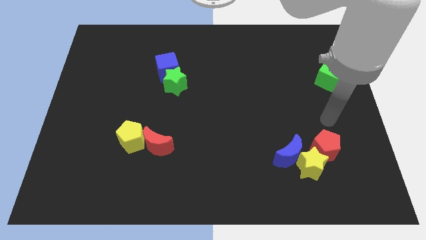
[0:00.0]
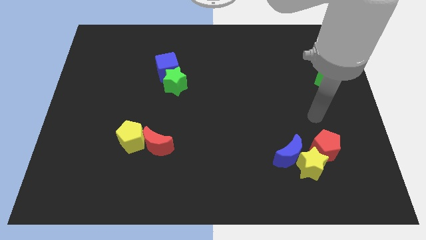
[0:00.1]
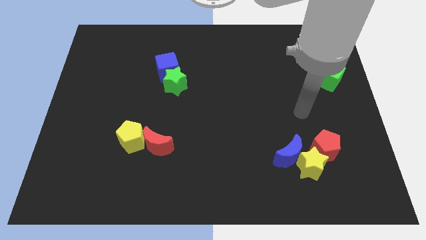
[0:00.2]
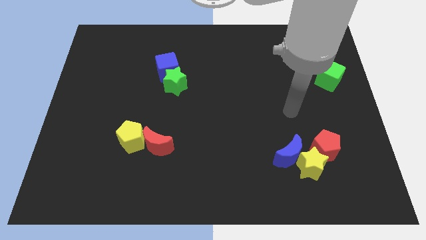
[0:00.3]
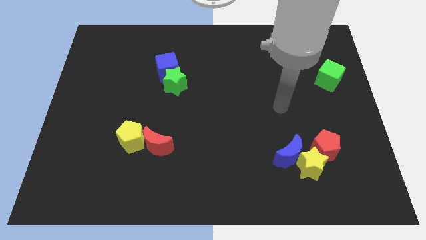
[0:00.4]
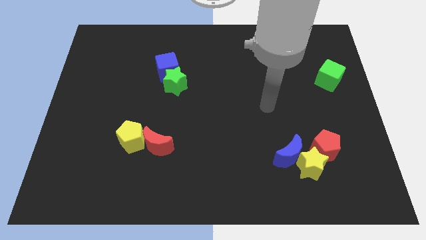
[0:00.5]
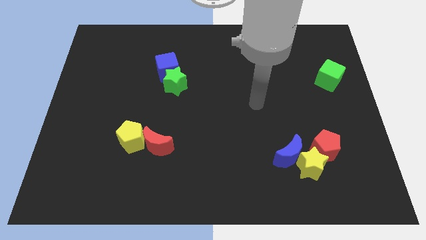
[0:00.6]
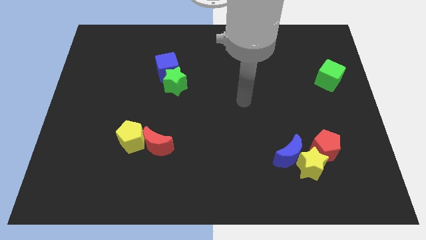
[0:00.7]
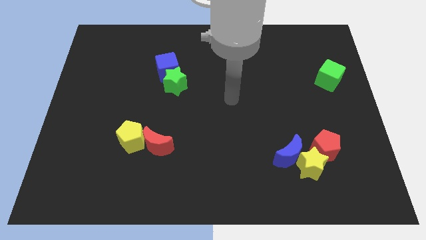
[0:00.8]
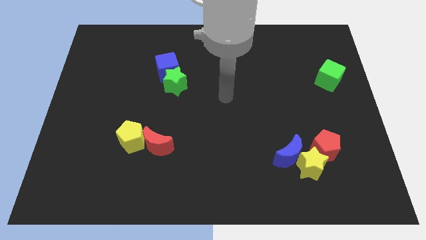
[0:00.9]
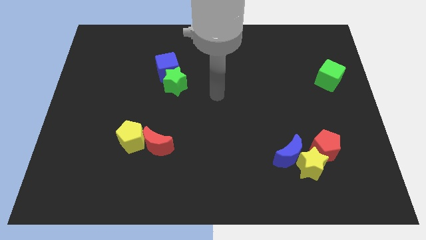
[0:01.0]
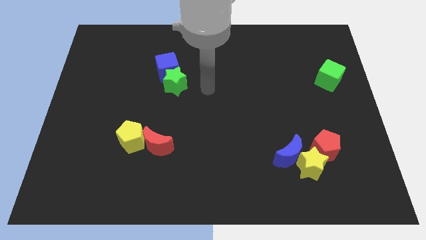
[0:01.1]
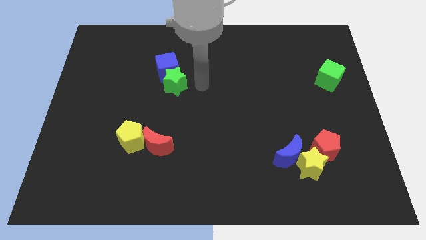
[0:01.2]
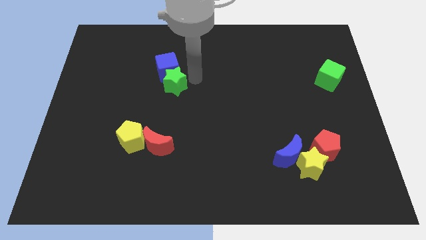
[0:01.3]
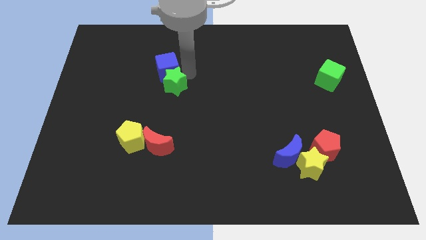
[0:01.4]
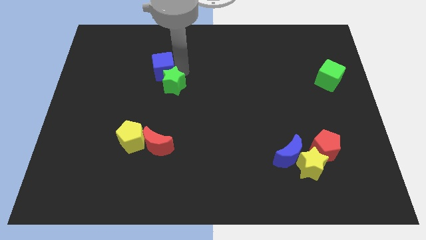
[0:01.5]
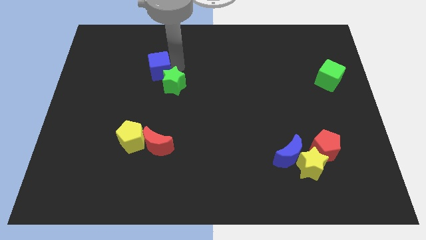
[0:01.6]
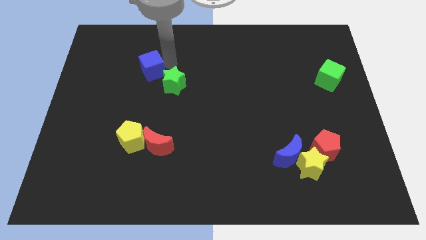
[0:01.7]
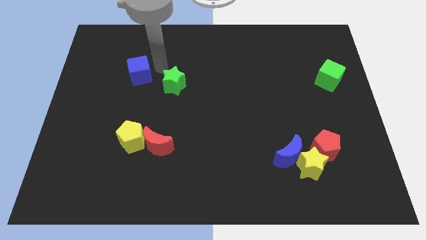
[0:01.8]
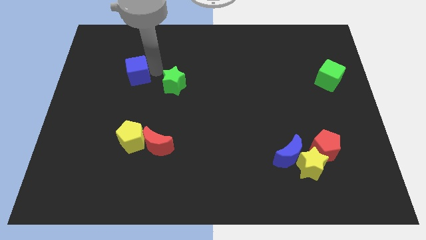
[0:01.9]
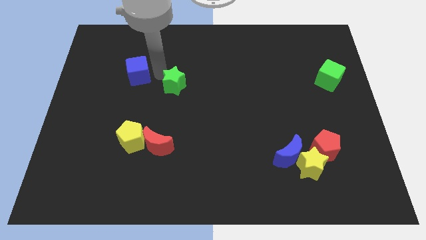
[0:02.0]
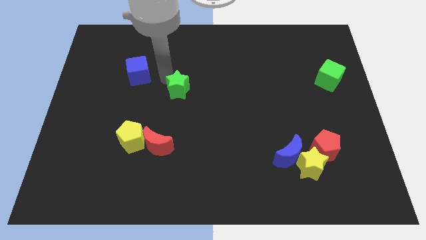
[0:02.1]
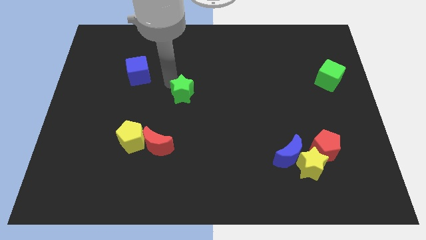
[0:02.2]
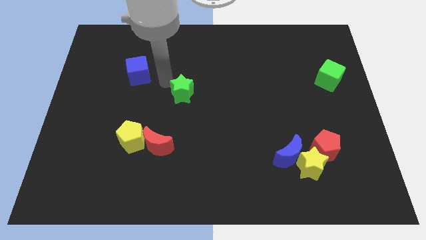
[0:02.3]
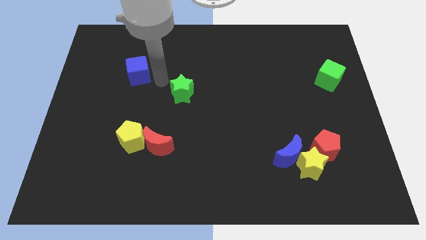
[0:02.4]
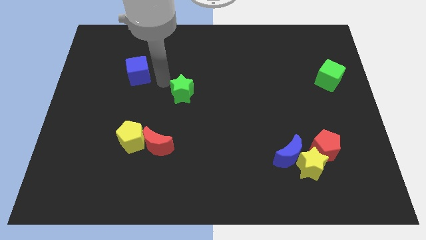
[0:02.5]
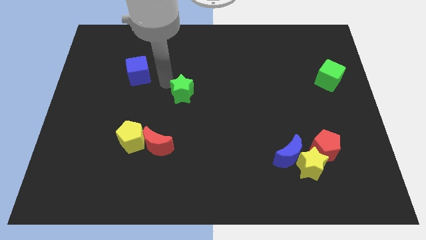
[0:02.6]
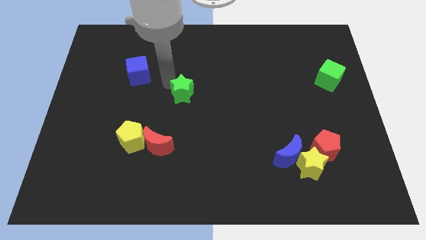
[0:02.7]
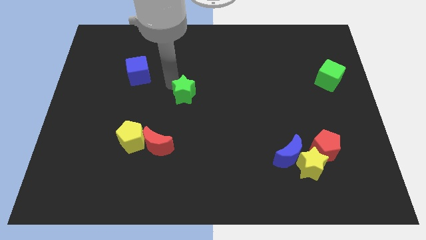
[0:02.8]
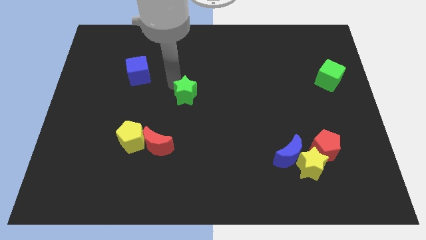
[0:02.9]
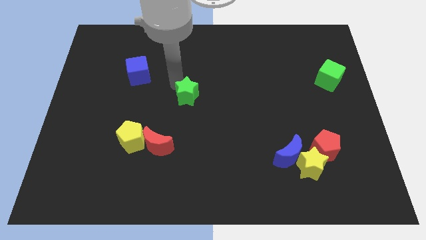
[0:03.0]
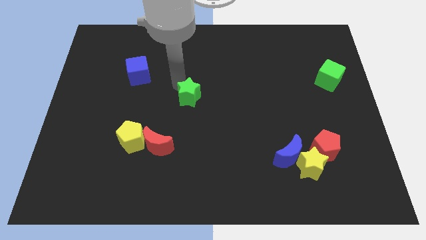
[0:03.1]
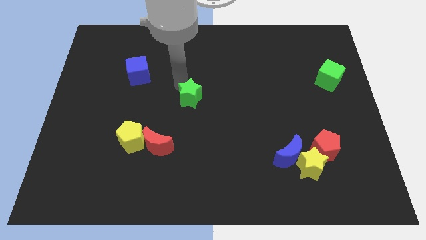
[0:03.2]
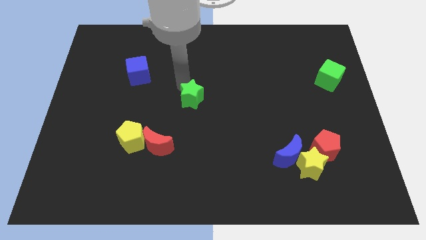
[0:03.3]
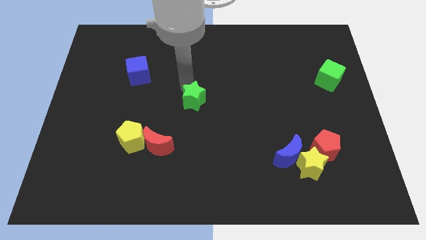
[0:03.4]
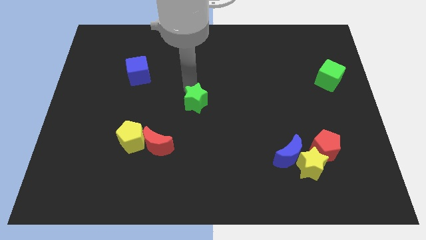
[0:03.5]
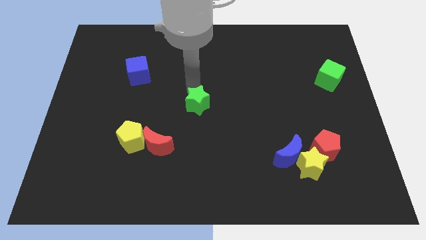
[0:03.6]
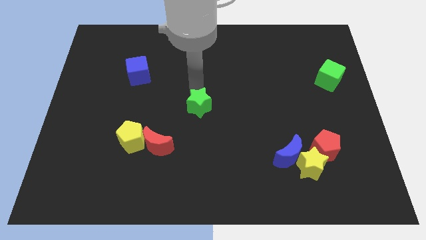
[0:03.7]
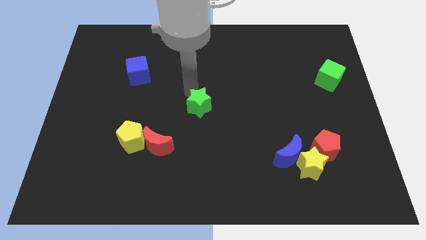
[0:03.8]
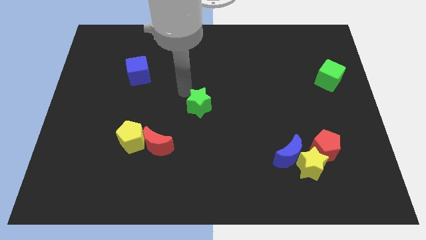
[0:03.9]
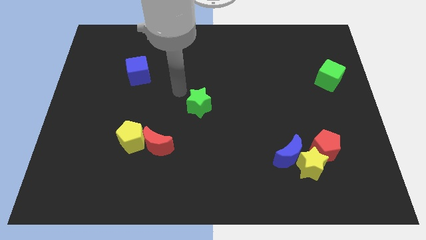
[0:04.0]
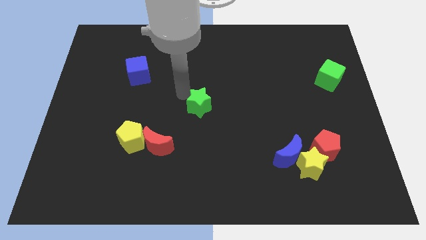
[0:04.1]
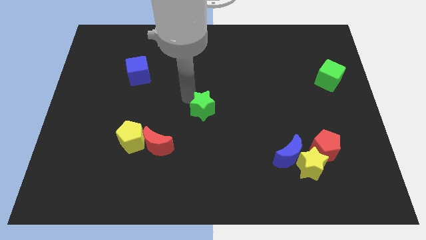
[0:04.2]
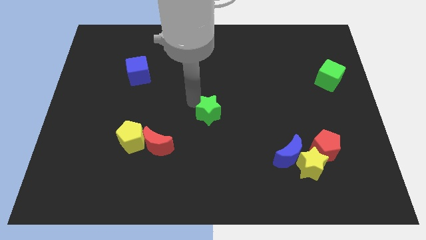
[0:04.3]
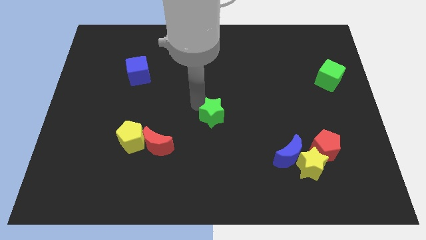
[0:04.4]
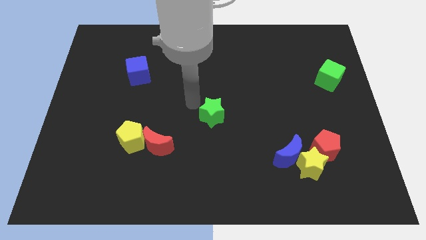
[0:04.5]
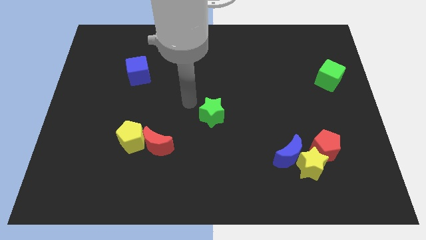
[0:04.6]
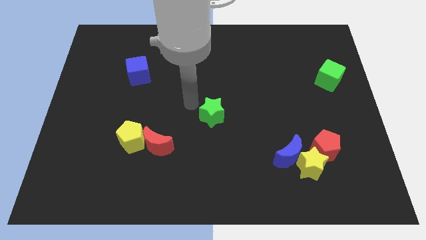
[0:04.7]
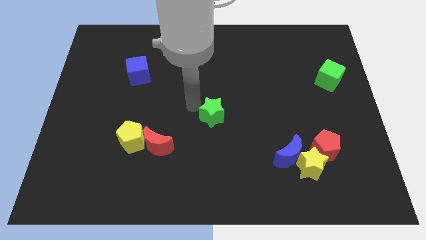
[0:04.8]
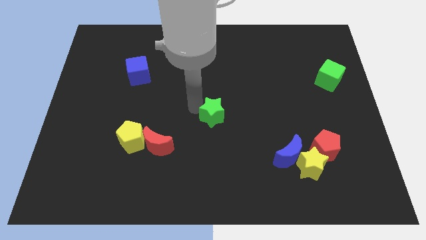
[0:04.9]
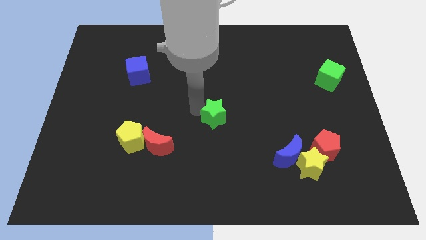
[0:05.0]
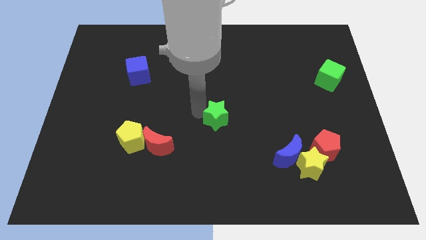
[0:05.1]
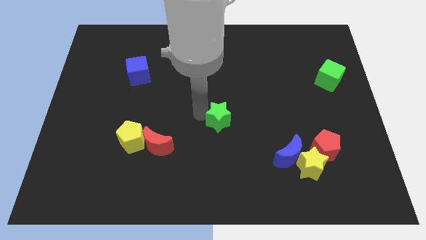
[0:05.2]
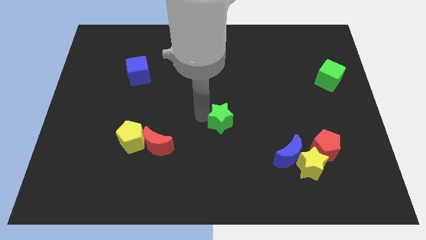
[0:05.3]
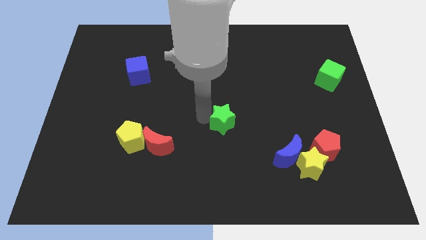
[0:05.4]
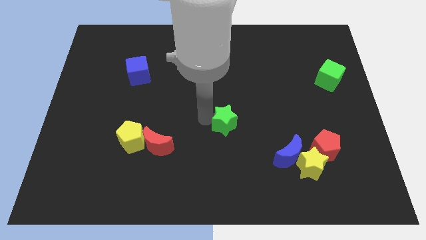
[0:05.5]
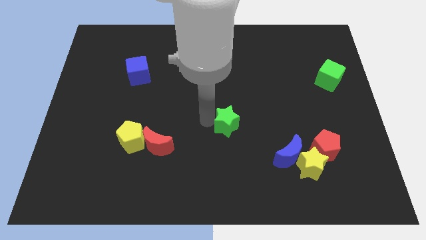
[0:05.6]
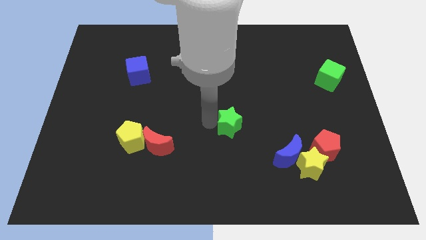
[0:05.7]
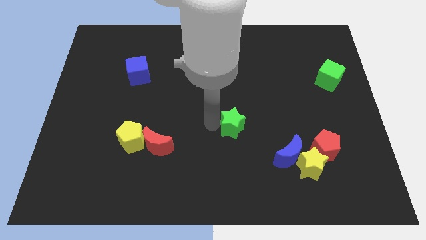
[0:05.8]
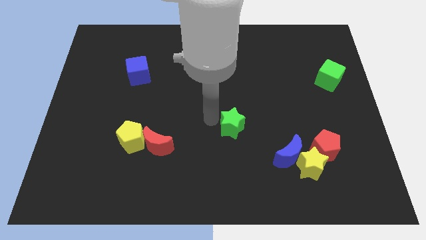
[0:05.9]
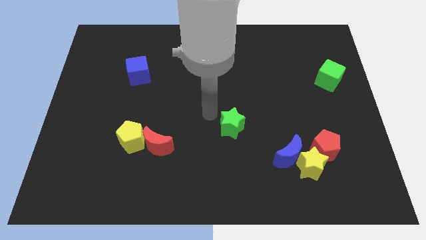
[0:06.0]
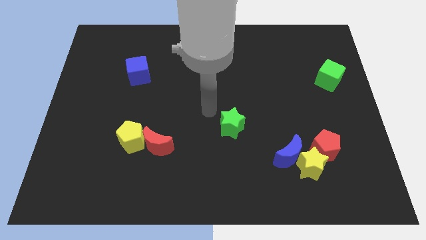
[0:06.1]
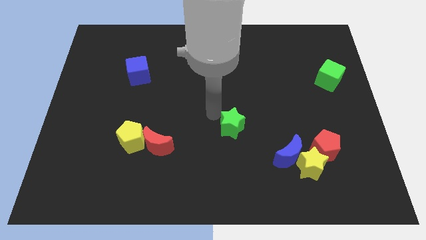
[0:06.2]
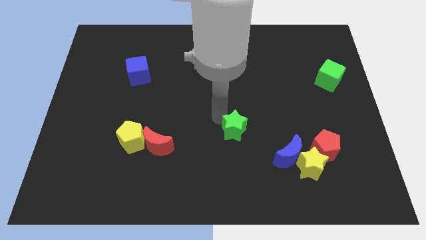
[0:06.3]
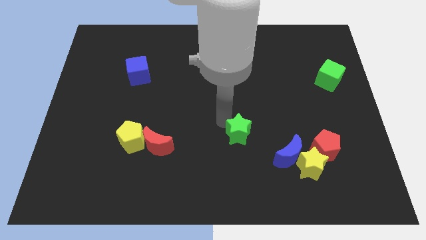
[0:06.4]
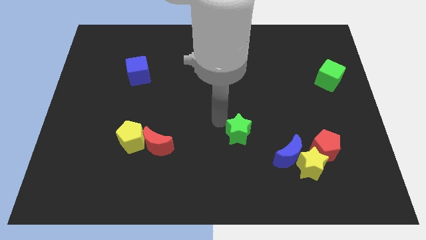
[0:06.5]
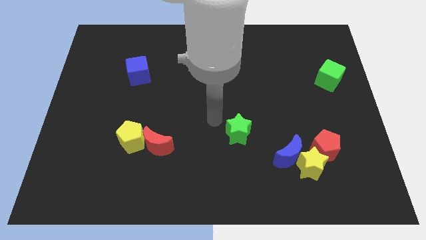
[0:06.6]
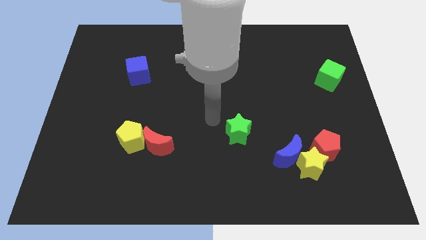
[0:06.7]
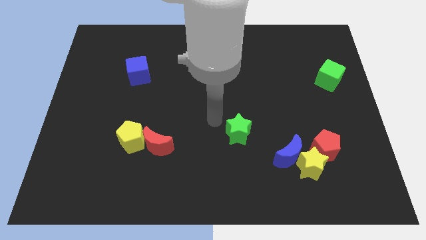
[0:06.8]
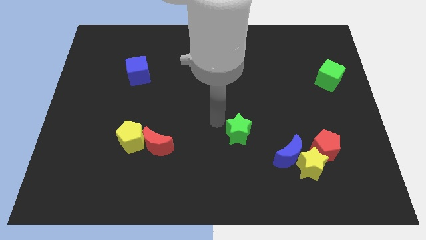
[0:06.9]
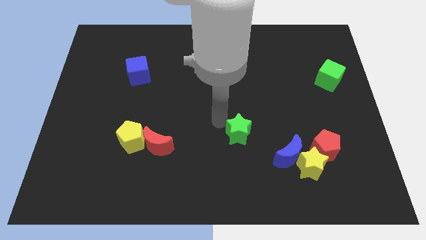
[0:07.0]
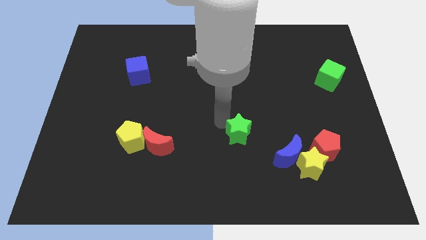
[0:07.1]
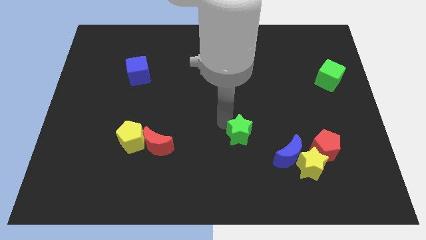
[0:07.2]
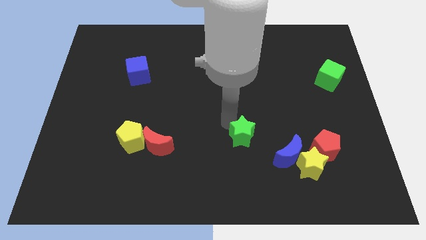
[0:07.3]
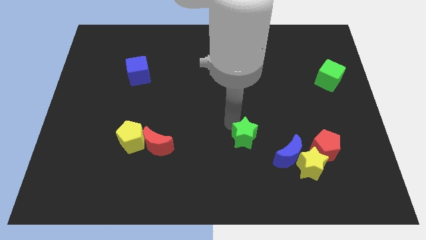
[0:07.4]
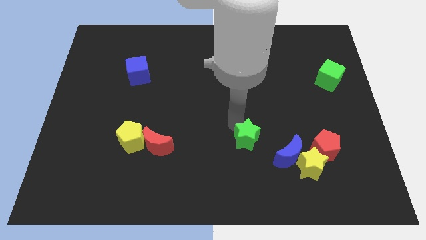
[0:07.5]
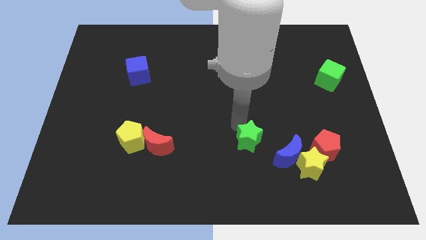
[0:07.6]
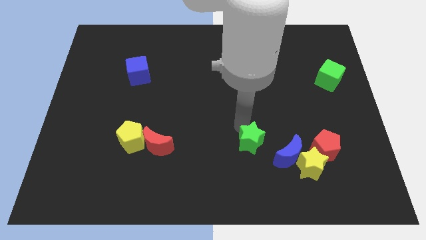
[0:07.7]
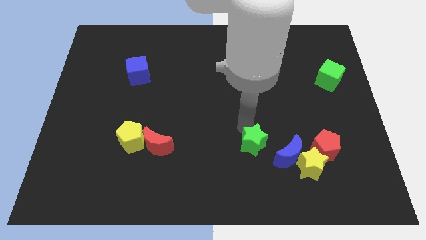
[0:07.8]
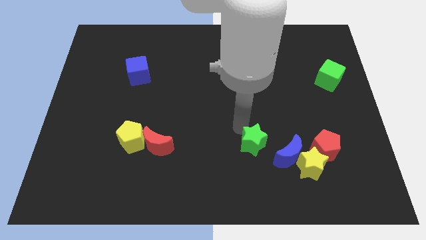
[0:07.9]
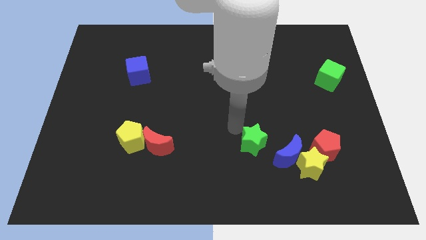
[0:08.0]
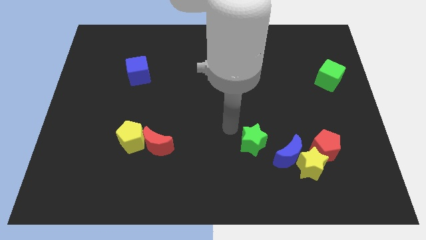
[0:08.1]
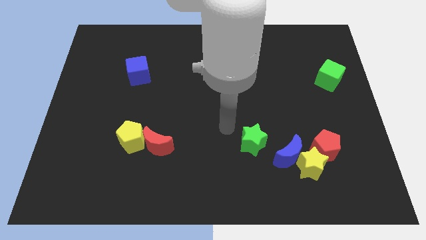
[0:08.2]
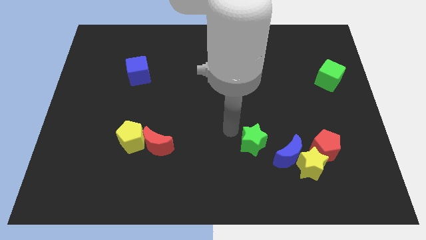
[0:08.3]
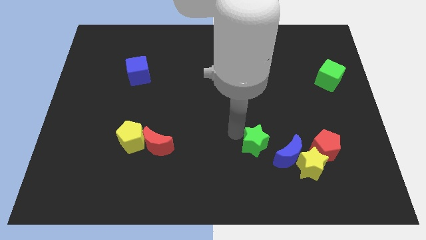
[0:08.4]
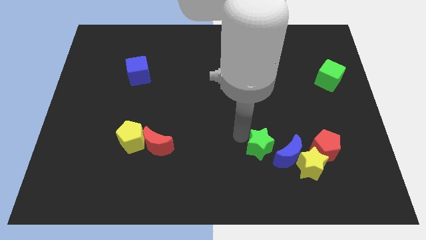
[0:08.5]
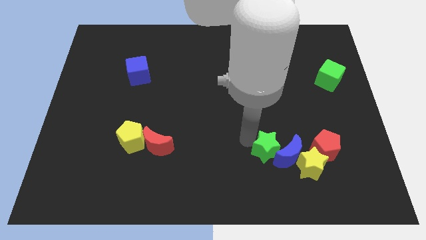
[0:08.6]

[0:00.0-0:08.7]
slide the green star to the blue moon
